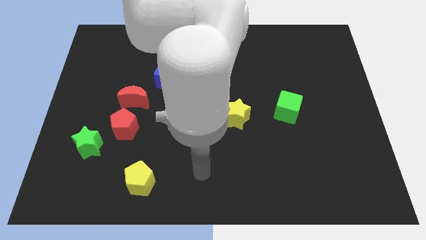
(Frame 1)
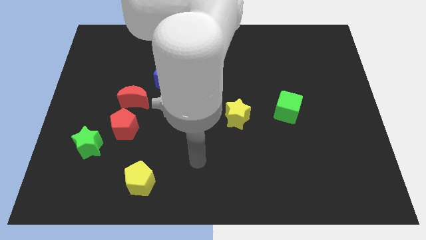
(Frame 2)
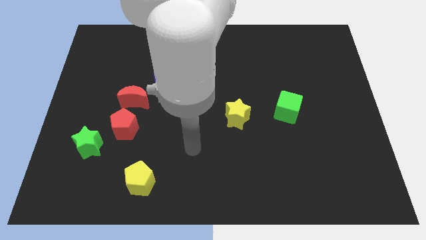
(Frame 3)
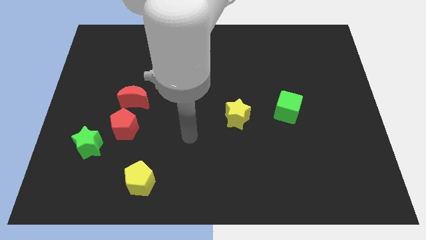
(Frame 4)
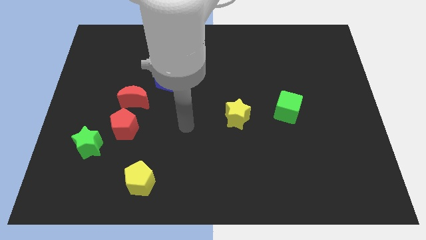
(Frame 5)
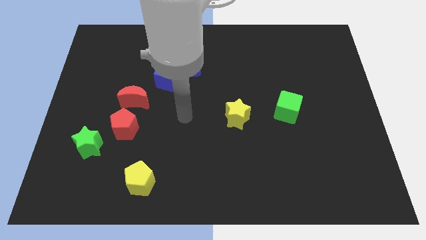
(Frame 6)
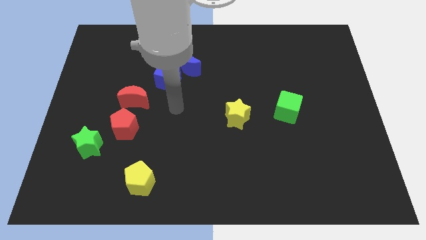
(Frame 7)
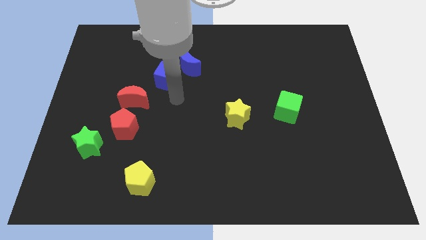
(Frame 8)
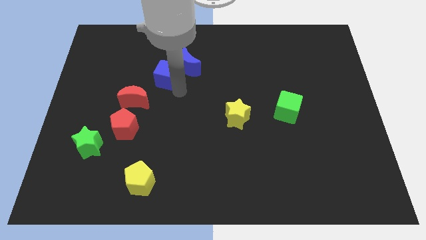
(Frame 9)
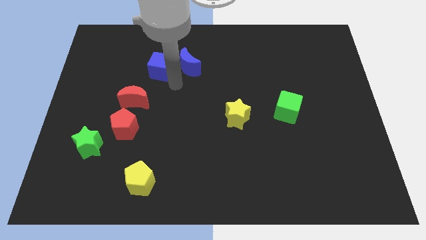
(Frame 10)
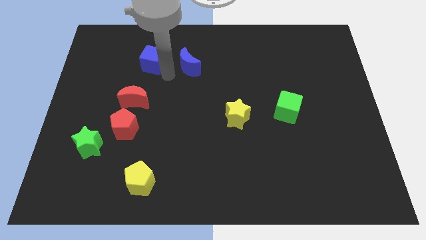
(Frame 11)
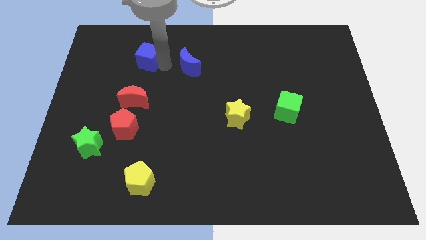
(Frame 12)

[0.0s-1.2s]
move the blue moon away from the blue cube

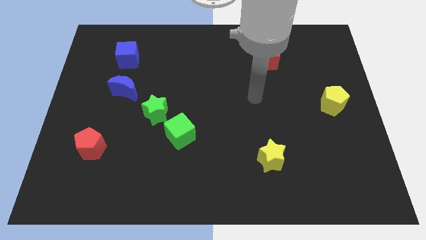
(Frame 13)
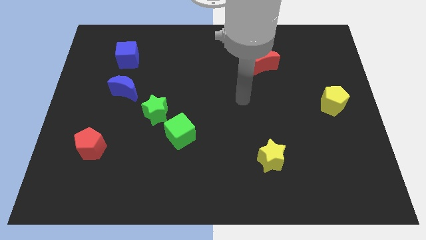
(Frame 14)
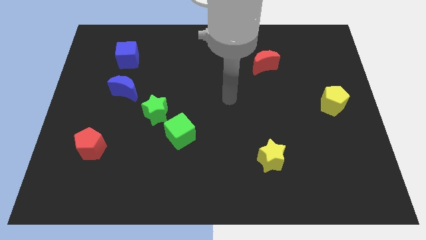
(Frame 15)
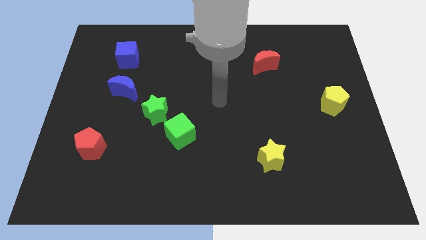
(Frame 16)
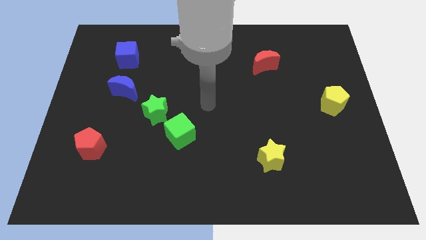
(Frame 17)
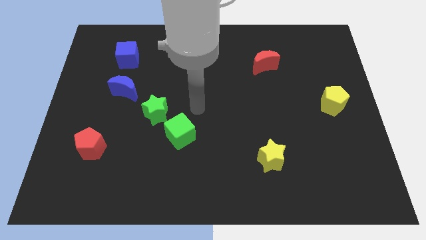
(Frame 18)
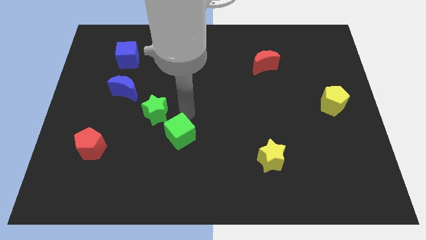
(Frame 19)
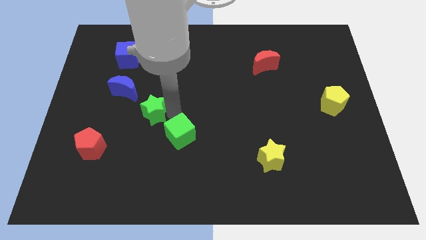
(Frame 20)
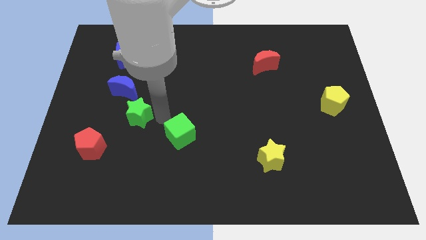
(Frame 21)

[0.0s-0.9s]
pull the green cube apart from the green star

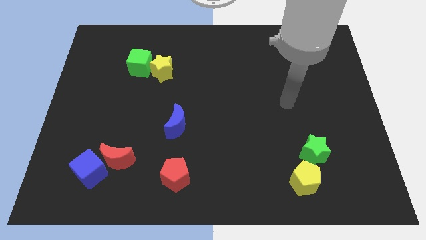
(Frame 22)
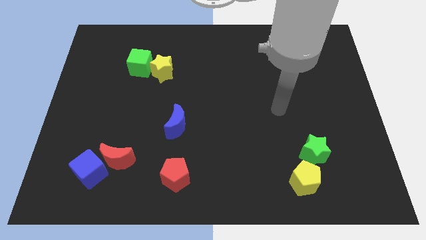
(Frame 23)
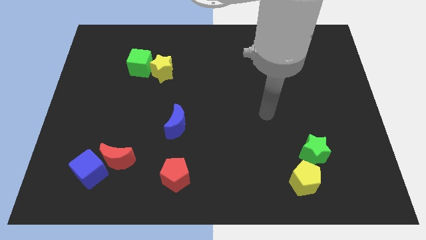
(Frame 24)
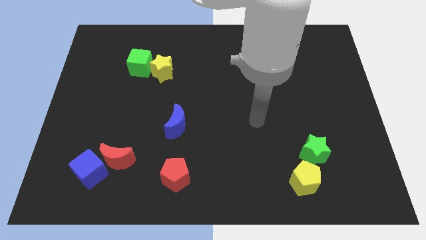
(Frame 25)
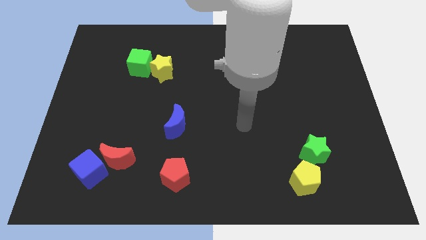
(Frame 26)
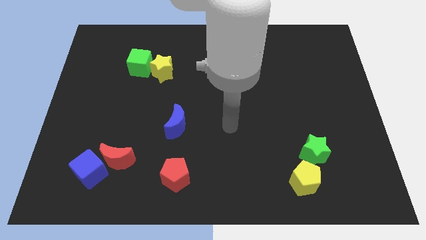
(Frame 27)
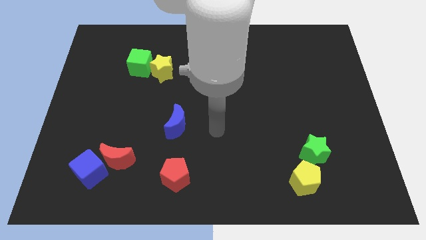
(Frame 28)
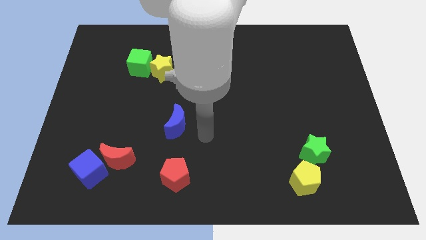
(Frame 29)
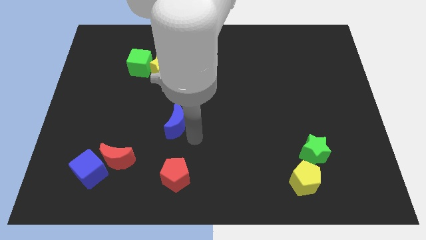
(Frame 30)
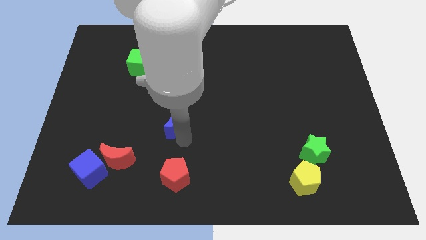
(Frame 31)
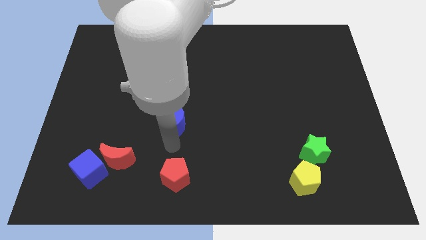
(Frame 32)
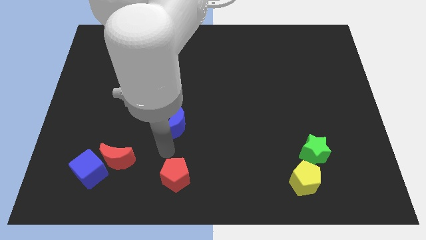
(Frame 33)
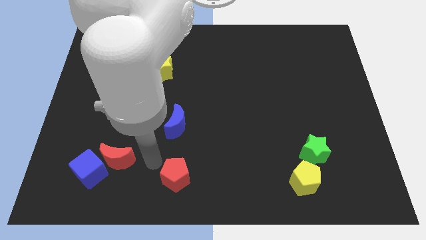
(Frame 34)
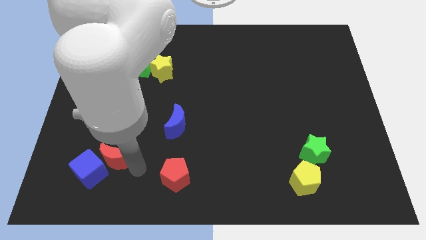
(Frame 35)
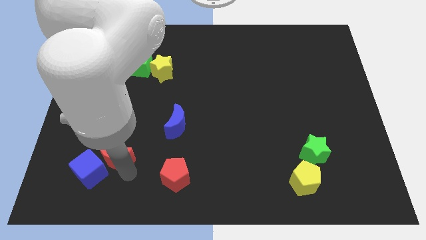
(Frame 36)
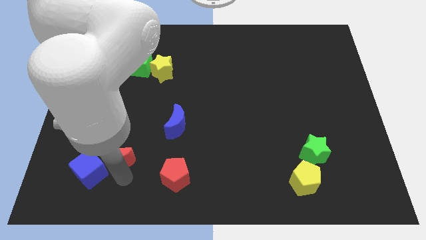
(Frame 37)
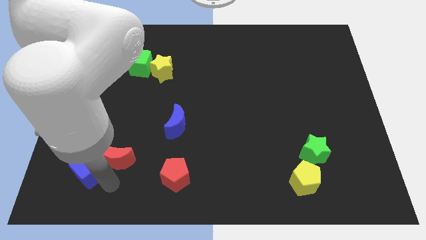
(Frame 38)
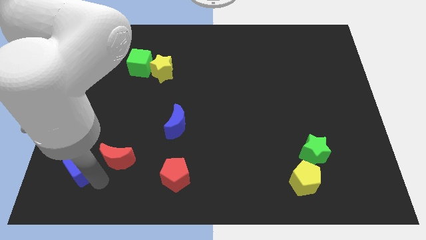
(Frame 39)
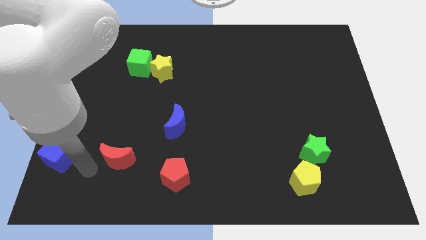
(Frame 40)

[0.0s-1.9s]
pull the red moon apart from the blue cube

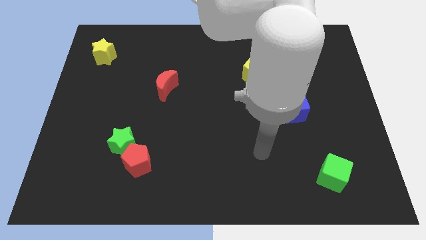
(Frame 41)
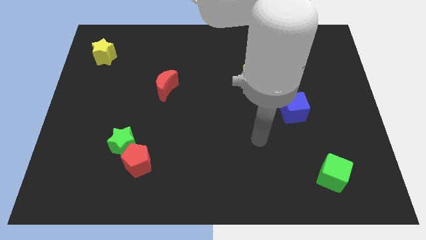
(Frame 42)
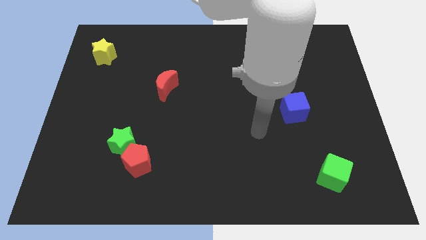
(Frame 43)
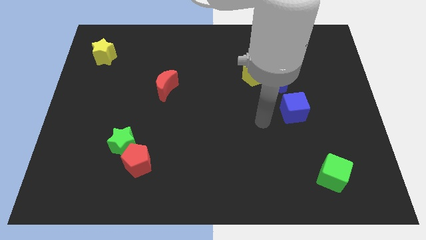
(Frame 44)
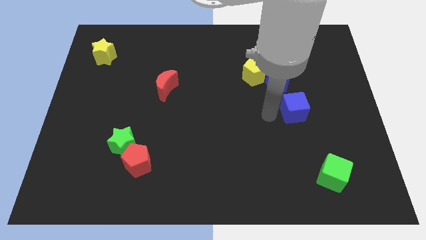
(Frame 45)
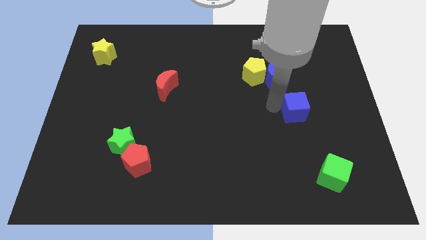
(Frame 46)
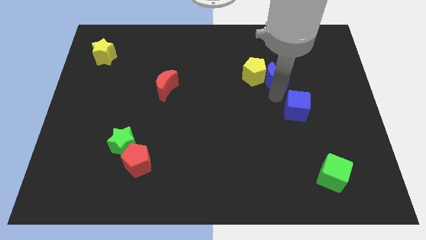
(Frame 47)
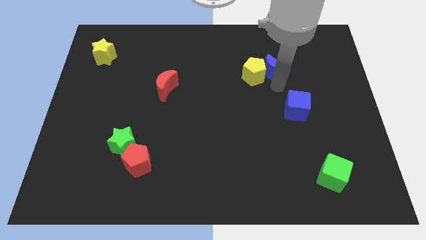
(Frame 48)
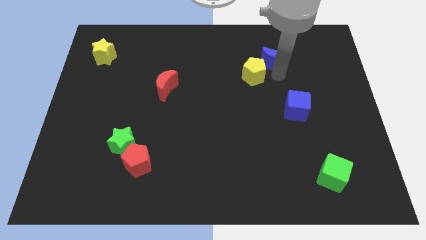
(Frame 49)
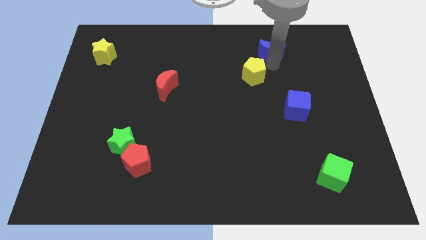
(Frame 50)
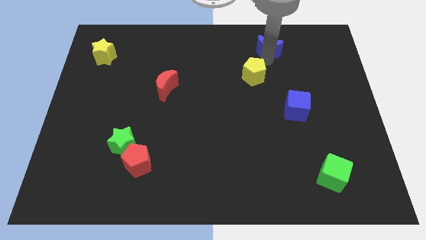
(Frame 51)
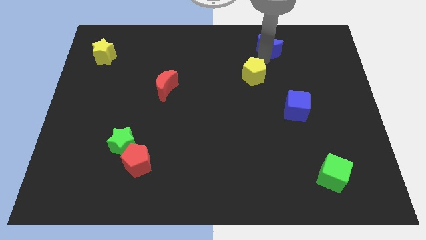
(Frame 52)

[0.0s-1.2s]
separate the yellow pentagon from the blue moon

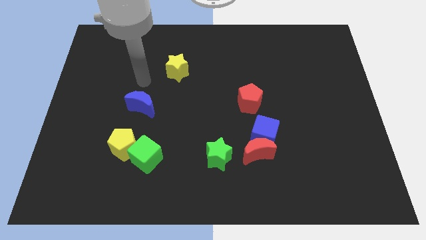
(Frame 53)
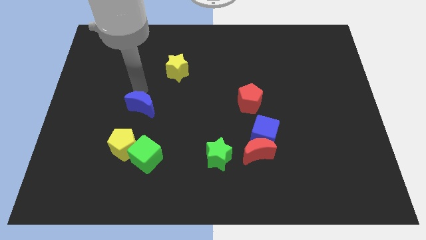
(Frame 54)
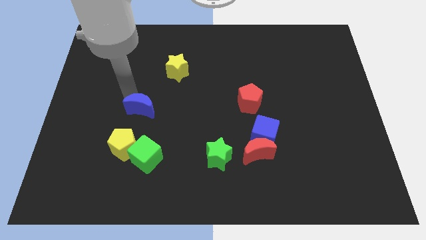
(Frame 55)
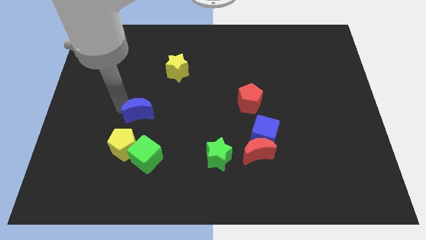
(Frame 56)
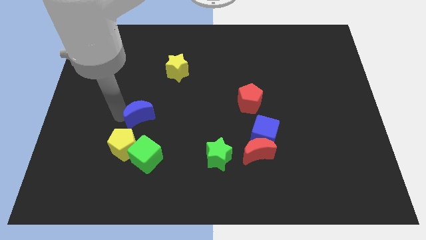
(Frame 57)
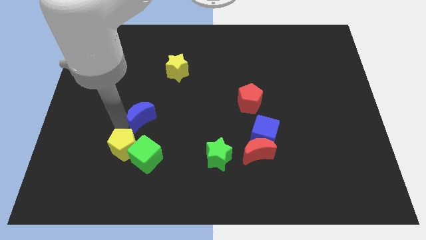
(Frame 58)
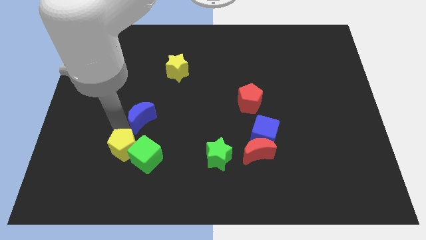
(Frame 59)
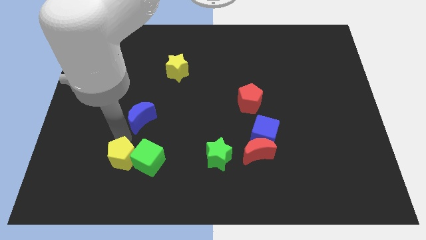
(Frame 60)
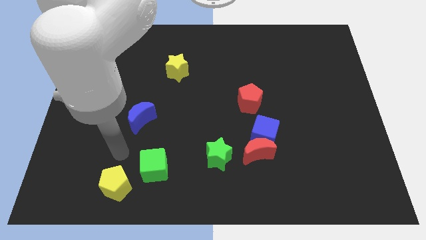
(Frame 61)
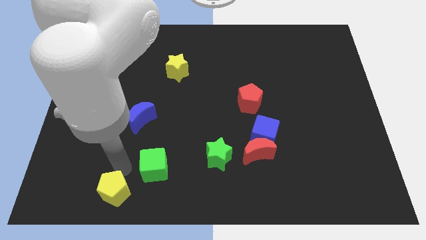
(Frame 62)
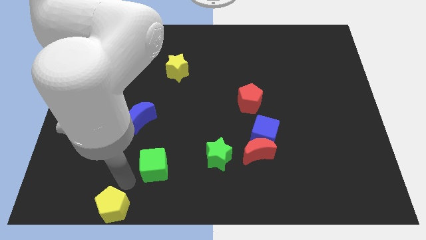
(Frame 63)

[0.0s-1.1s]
separate the green cube from the yellow pentagon

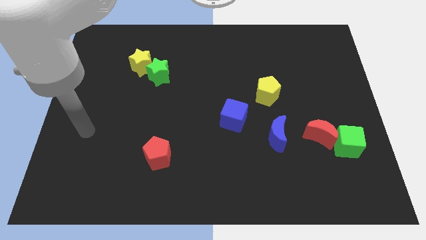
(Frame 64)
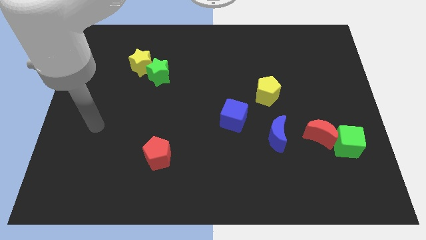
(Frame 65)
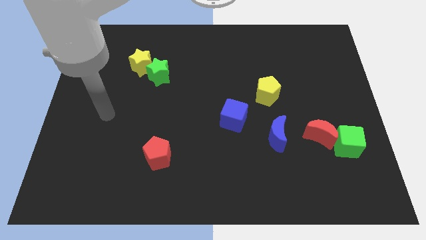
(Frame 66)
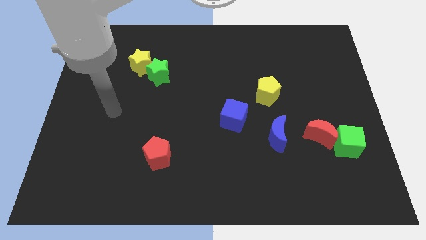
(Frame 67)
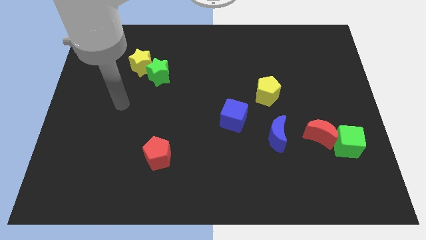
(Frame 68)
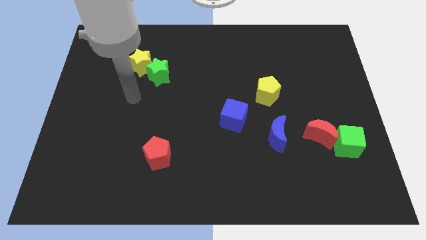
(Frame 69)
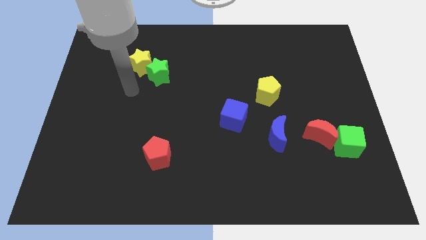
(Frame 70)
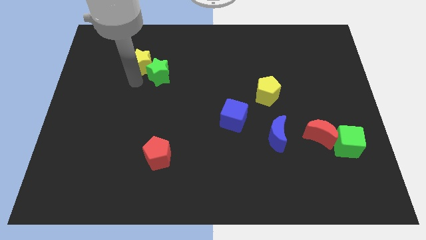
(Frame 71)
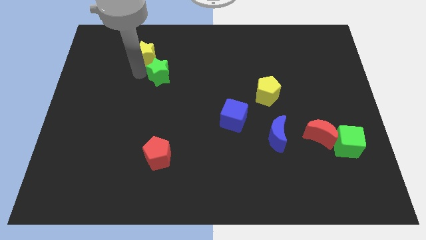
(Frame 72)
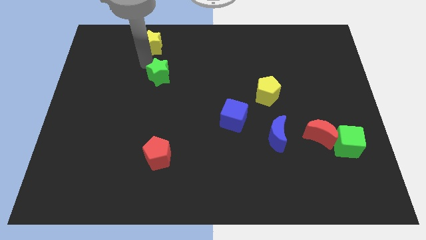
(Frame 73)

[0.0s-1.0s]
separate the green star from the yellow star

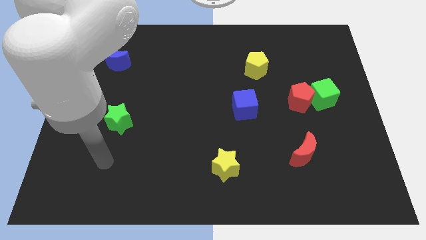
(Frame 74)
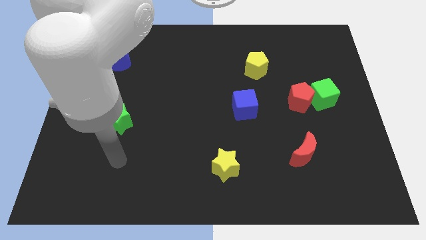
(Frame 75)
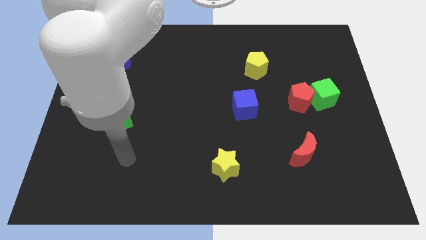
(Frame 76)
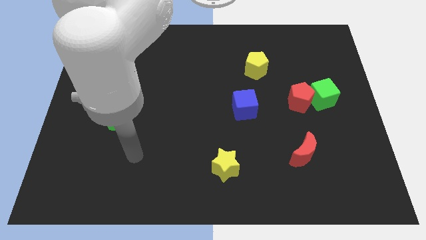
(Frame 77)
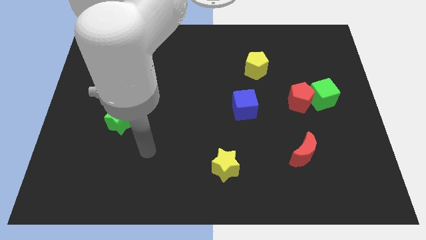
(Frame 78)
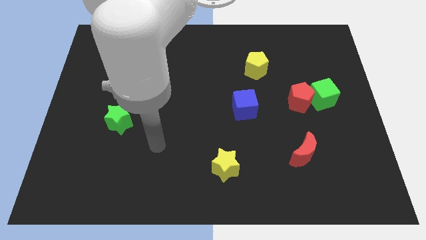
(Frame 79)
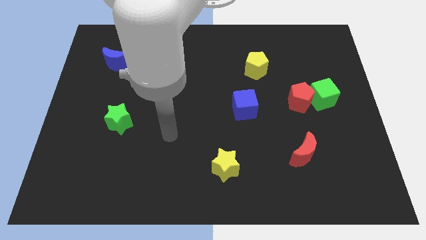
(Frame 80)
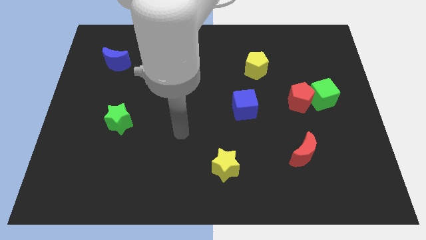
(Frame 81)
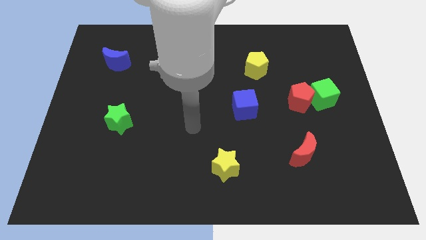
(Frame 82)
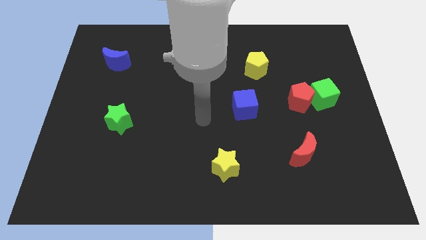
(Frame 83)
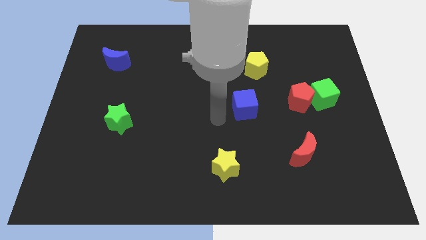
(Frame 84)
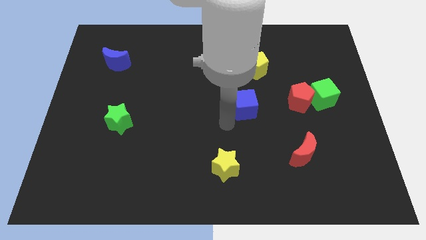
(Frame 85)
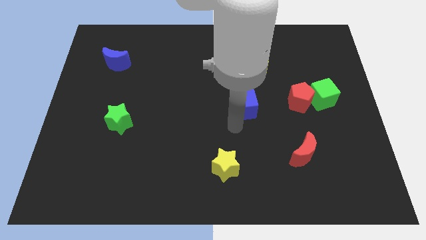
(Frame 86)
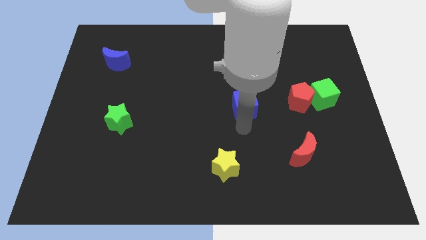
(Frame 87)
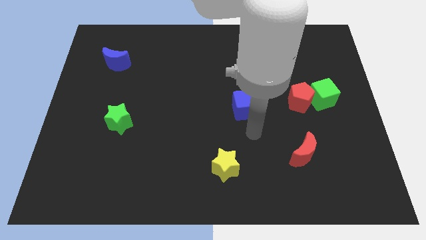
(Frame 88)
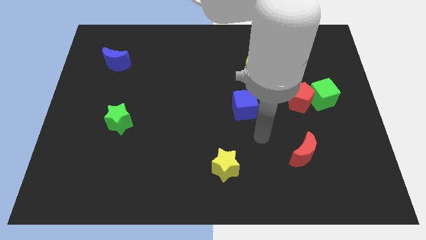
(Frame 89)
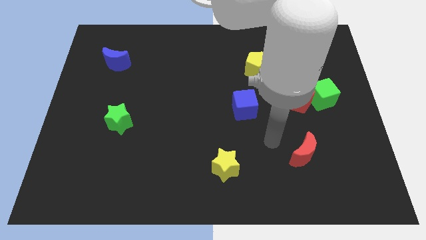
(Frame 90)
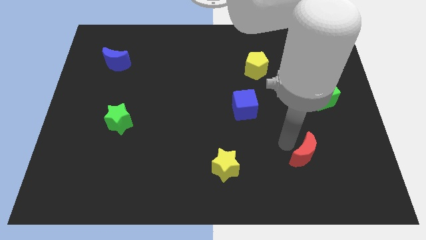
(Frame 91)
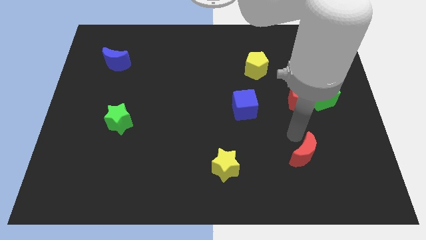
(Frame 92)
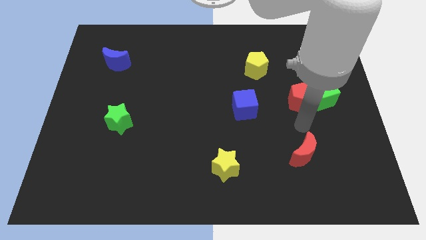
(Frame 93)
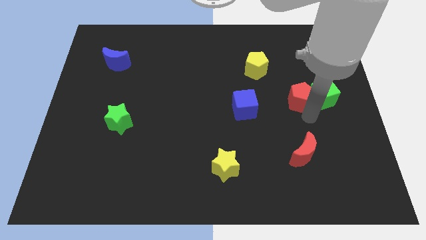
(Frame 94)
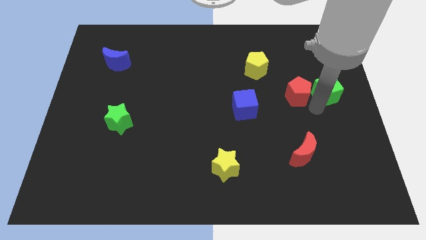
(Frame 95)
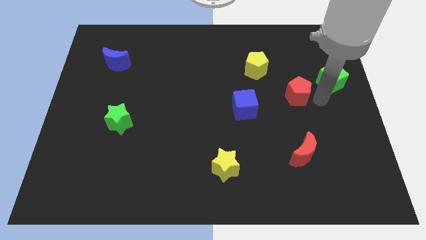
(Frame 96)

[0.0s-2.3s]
pull the red pentagon apart from the green cube
